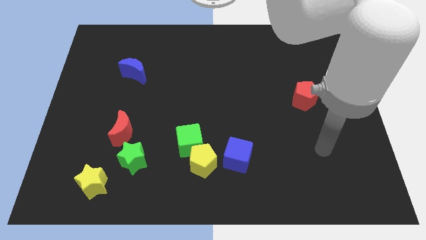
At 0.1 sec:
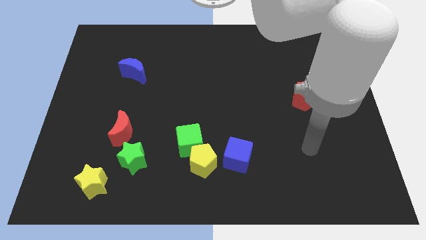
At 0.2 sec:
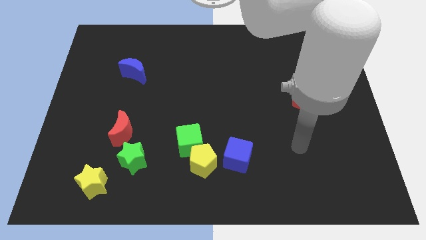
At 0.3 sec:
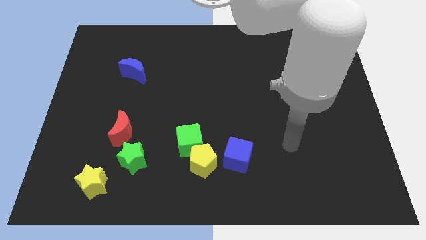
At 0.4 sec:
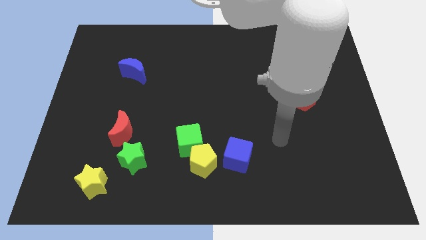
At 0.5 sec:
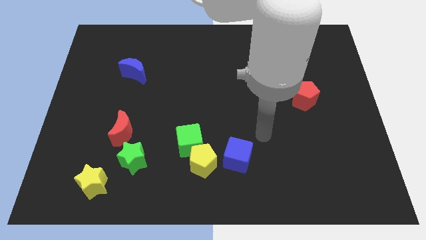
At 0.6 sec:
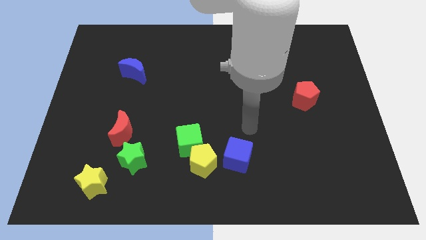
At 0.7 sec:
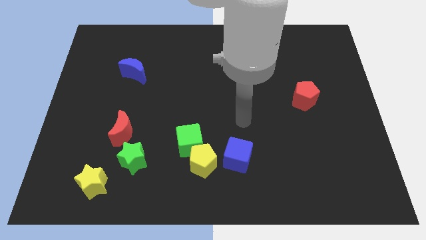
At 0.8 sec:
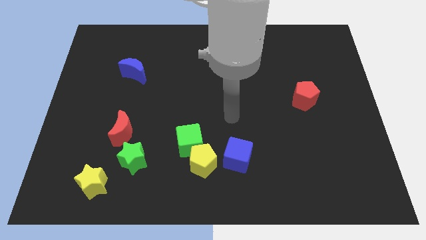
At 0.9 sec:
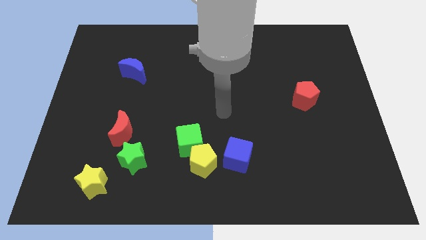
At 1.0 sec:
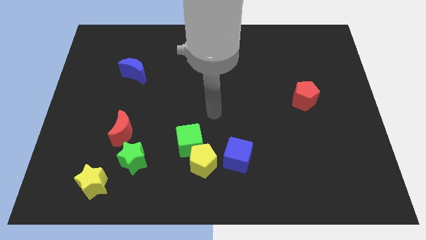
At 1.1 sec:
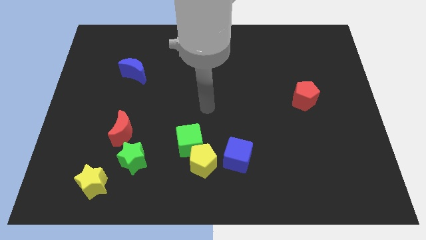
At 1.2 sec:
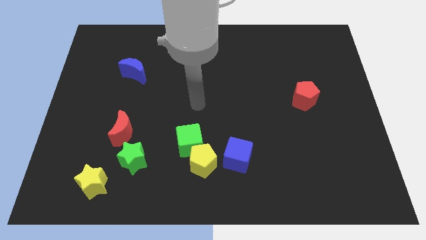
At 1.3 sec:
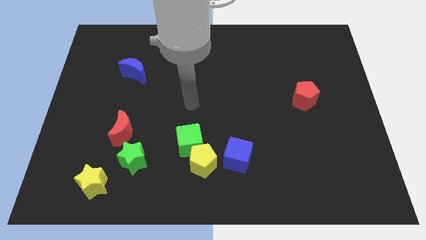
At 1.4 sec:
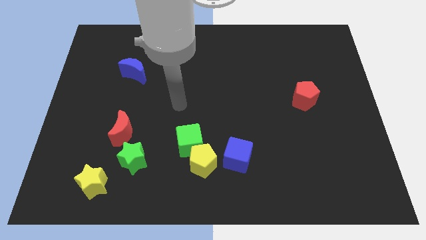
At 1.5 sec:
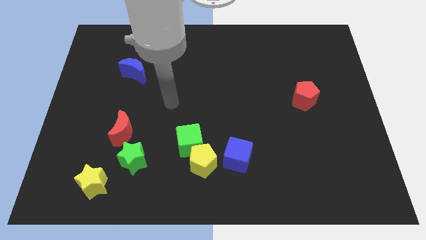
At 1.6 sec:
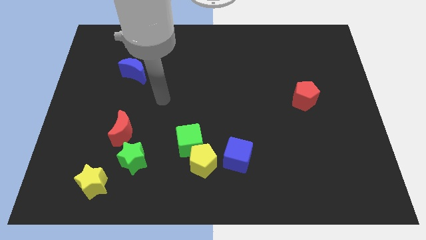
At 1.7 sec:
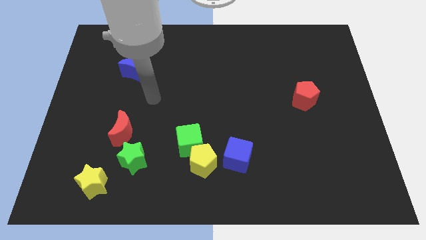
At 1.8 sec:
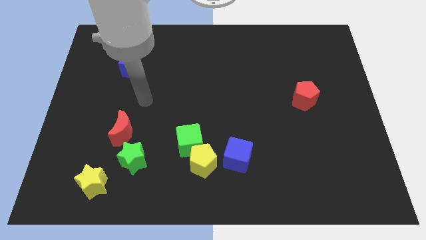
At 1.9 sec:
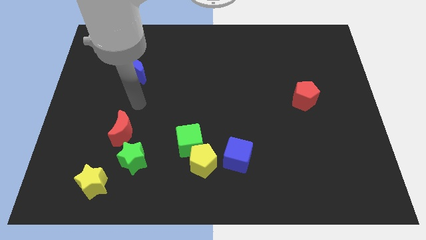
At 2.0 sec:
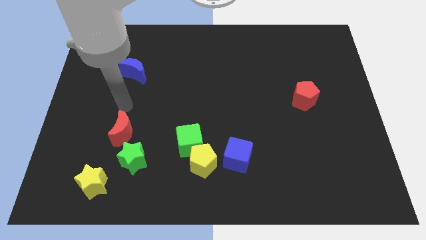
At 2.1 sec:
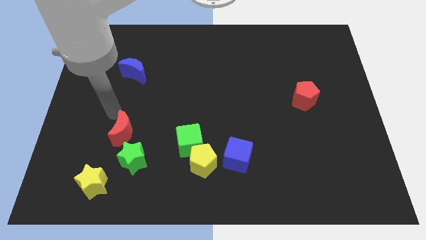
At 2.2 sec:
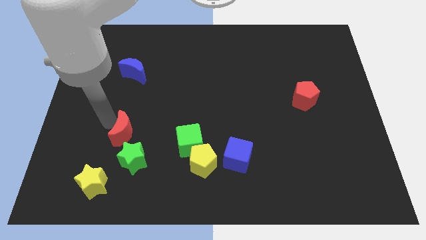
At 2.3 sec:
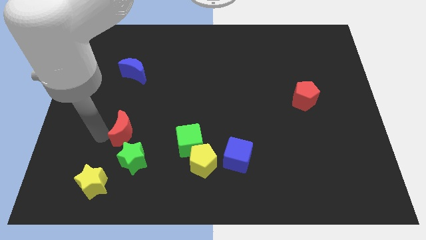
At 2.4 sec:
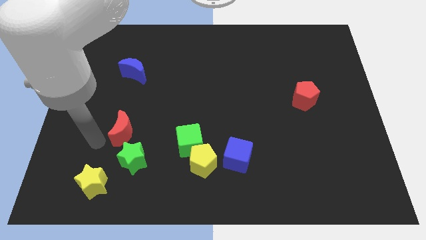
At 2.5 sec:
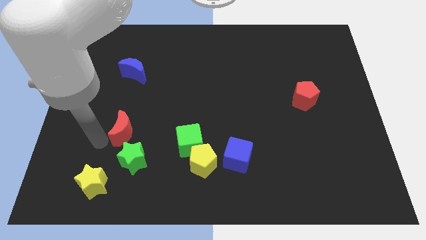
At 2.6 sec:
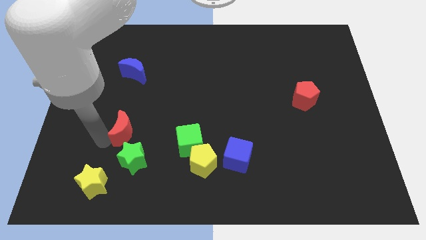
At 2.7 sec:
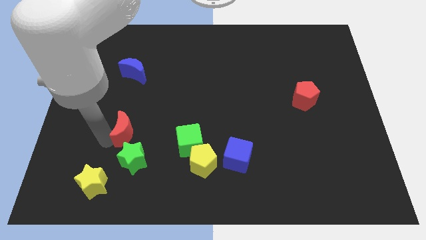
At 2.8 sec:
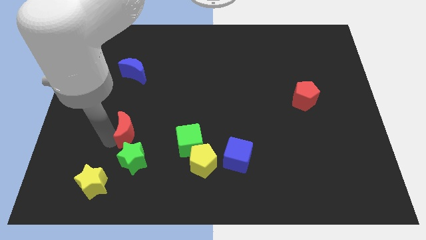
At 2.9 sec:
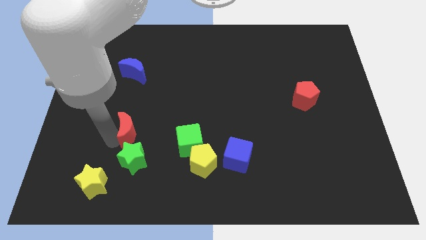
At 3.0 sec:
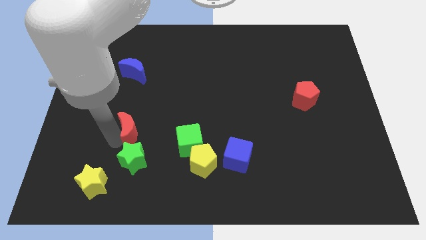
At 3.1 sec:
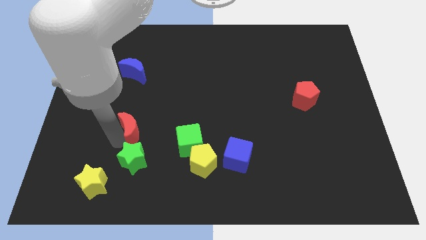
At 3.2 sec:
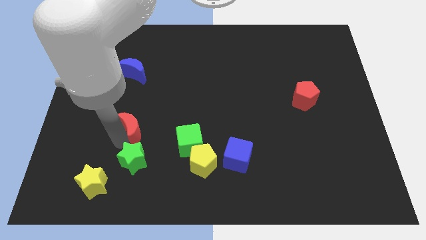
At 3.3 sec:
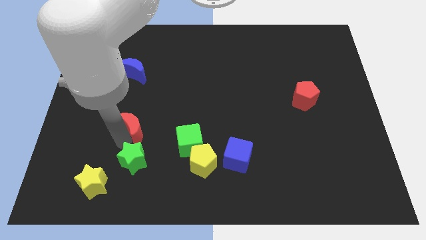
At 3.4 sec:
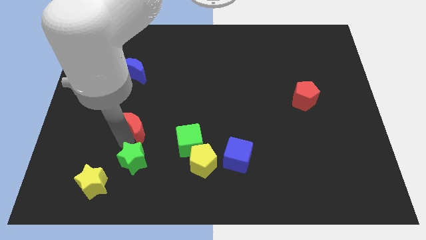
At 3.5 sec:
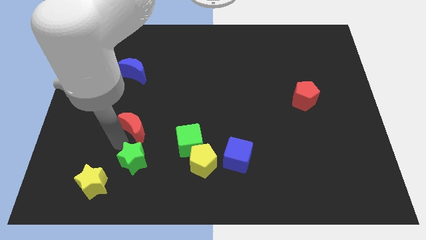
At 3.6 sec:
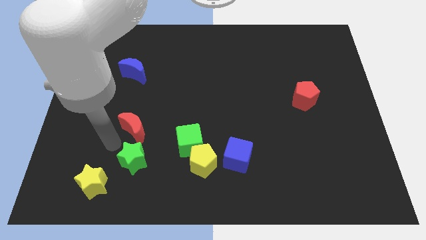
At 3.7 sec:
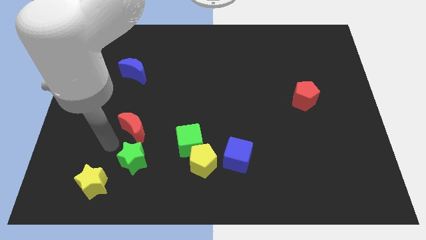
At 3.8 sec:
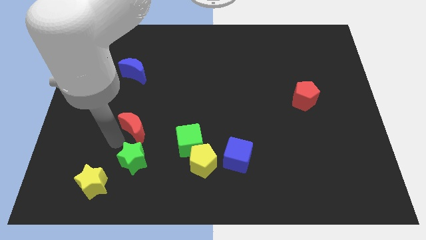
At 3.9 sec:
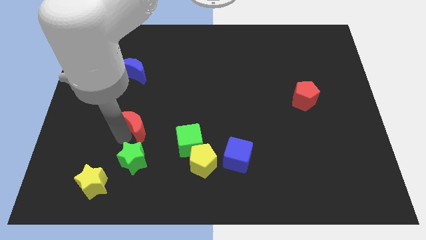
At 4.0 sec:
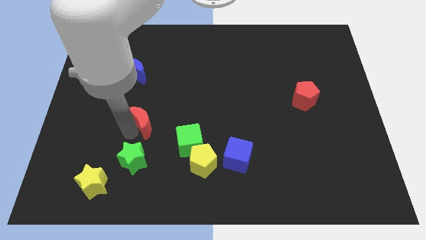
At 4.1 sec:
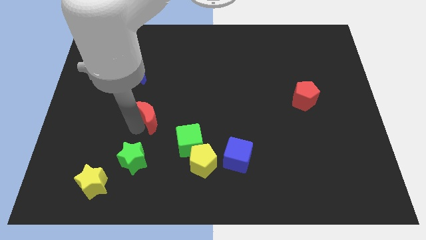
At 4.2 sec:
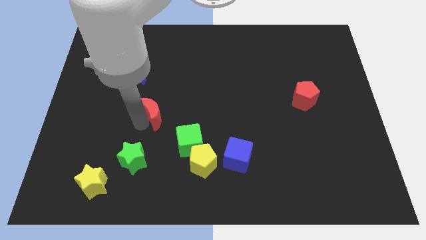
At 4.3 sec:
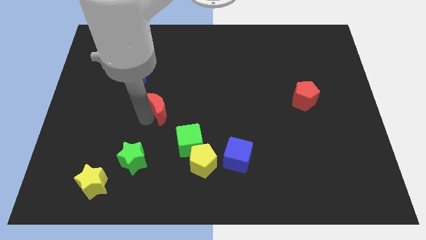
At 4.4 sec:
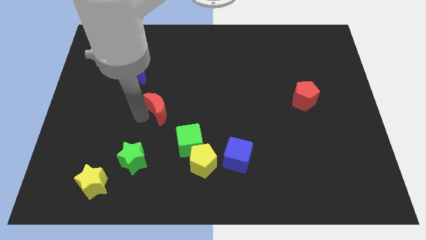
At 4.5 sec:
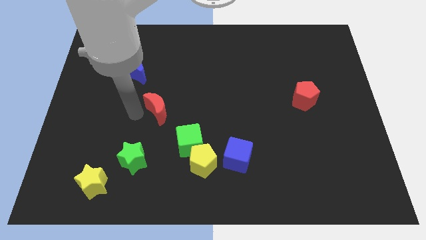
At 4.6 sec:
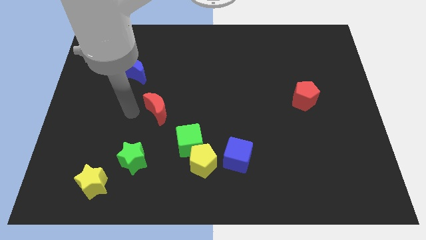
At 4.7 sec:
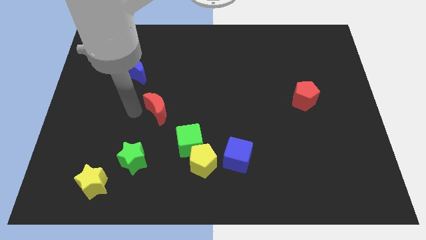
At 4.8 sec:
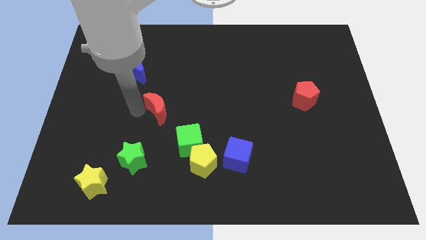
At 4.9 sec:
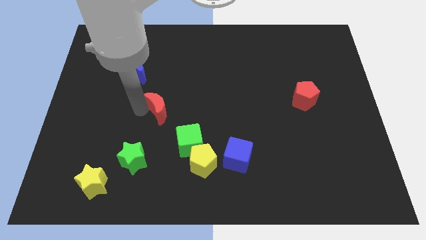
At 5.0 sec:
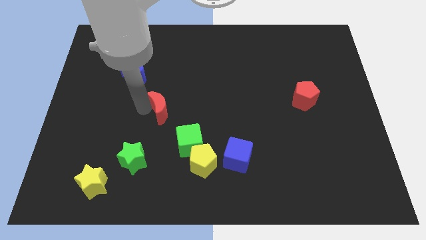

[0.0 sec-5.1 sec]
move the red moon to the middle

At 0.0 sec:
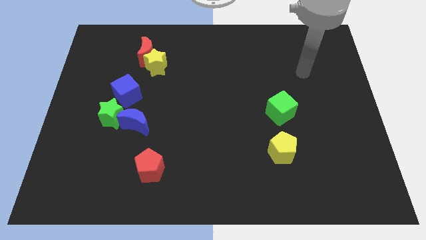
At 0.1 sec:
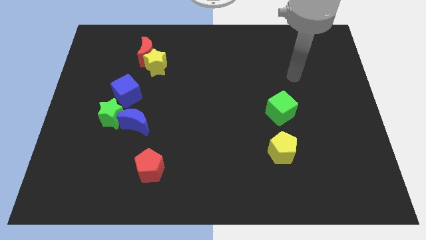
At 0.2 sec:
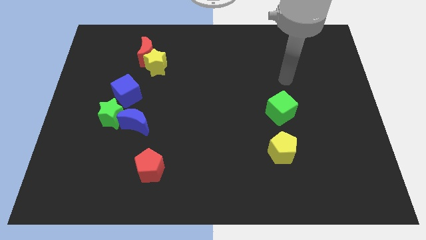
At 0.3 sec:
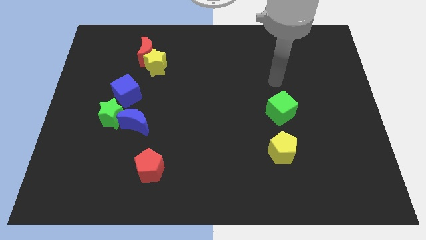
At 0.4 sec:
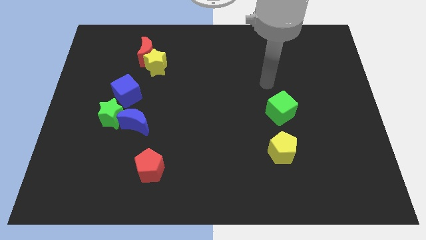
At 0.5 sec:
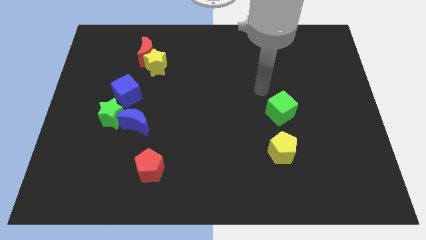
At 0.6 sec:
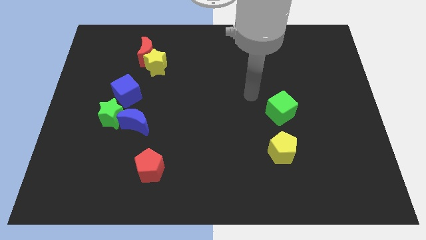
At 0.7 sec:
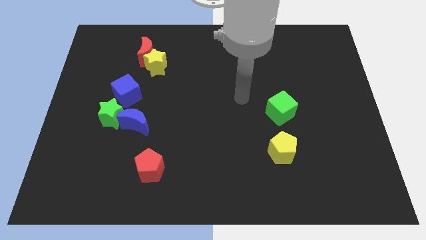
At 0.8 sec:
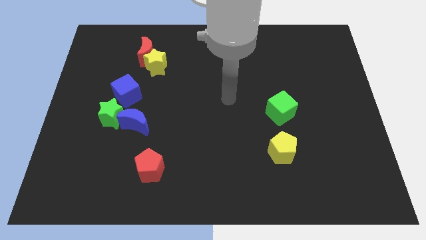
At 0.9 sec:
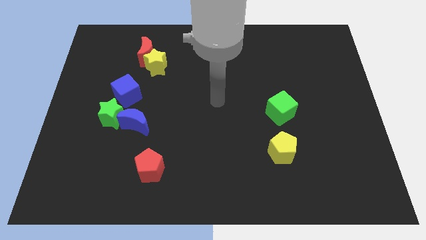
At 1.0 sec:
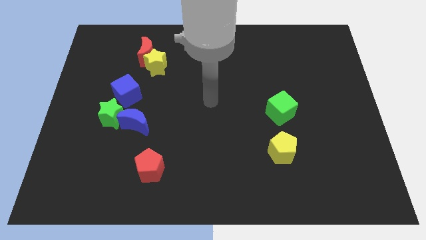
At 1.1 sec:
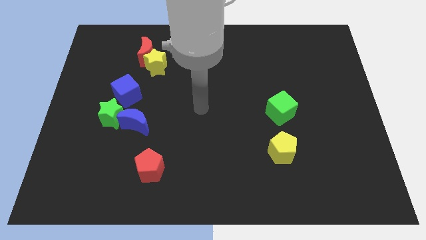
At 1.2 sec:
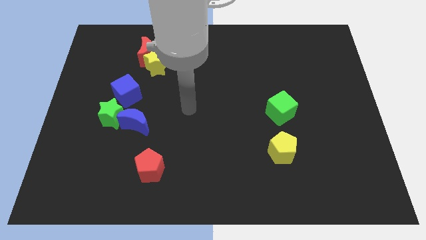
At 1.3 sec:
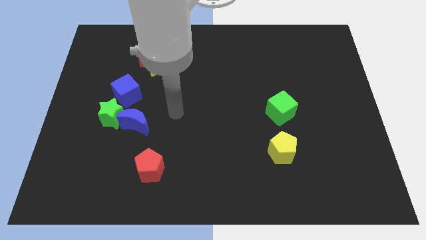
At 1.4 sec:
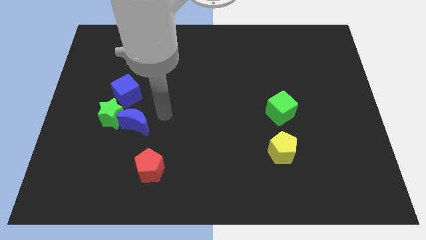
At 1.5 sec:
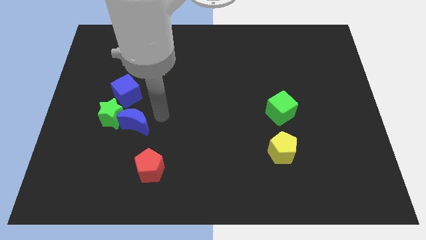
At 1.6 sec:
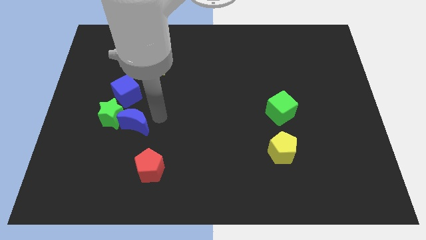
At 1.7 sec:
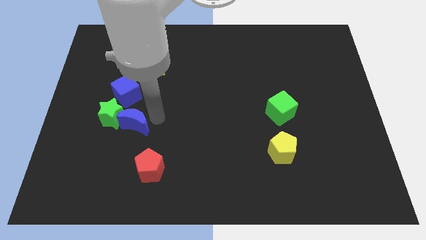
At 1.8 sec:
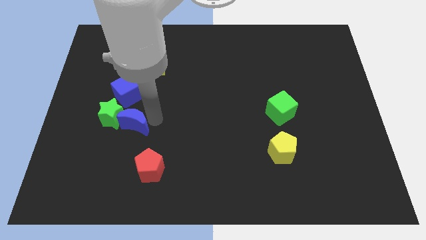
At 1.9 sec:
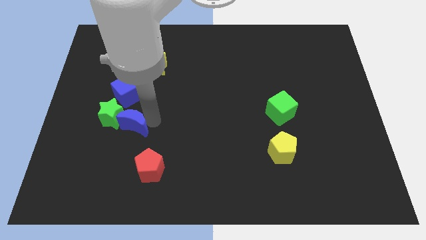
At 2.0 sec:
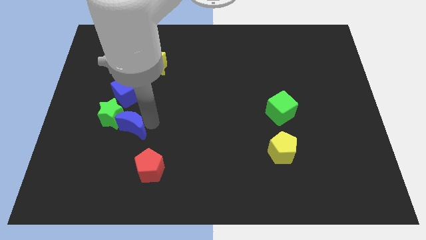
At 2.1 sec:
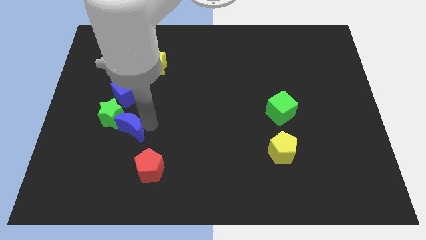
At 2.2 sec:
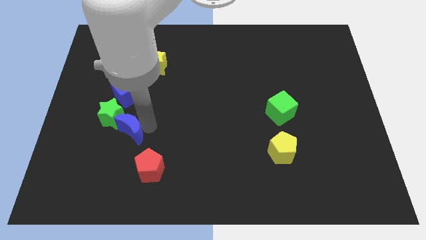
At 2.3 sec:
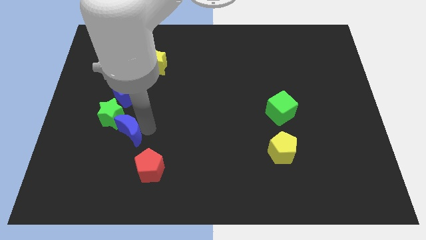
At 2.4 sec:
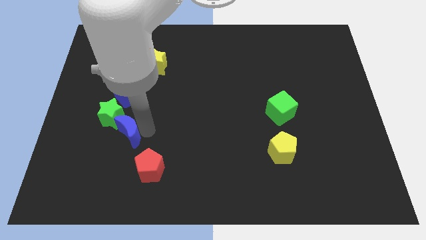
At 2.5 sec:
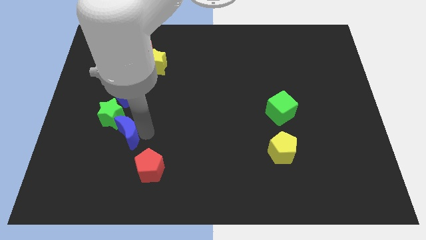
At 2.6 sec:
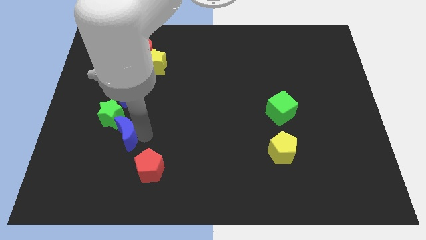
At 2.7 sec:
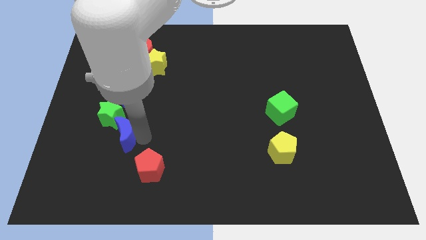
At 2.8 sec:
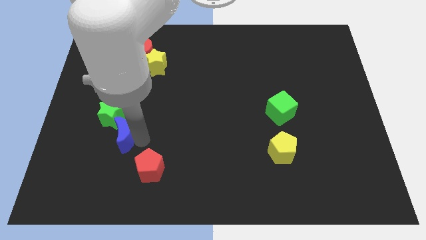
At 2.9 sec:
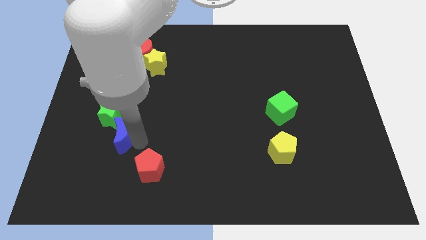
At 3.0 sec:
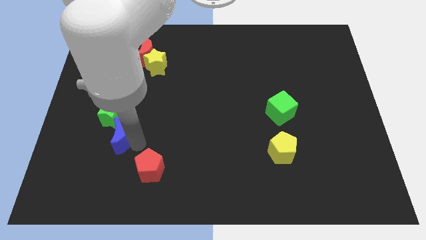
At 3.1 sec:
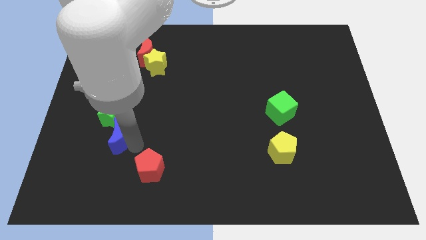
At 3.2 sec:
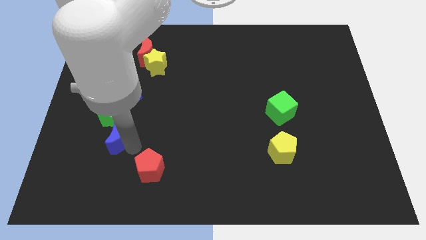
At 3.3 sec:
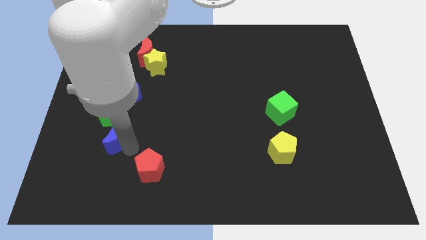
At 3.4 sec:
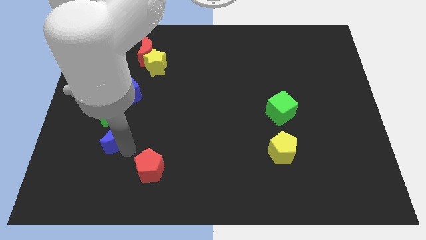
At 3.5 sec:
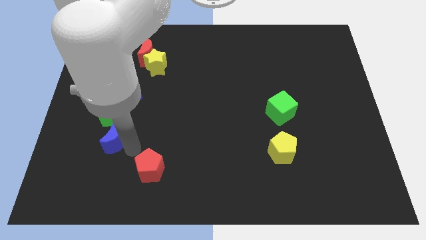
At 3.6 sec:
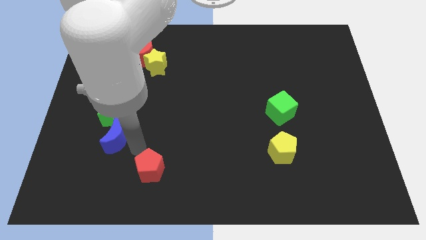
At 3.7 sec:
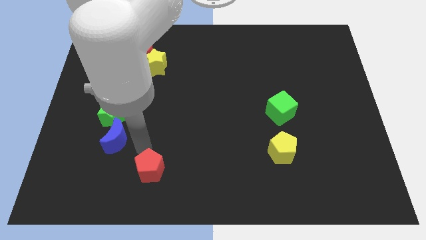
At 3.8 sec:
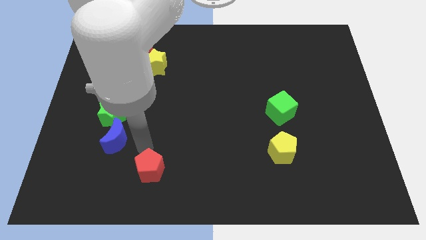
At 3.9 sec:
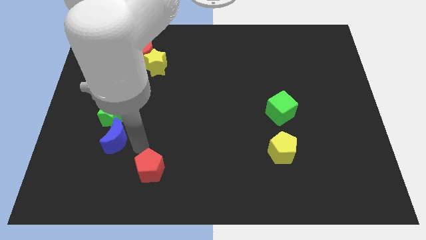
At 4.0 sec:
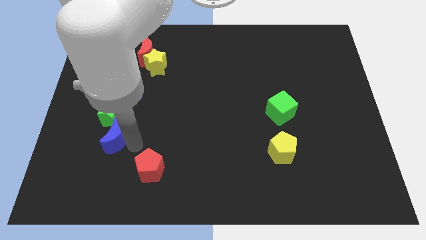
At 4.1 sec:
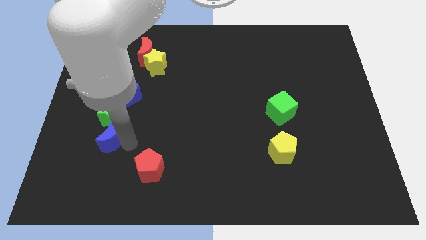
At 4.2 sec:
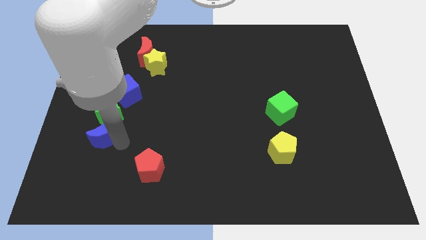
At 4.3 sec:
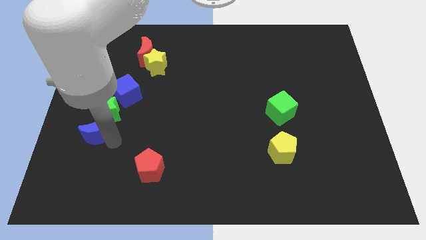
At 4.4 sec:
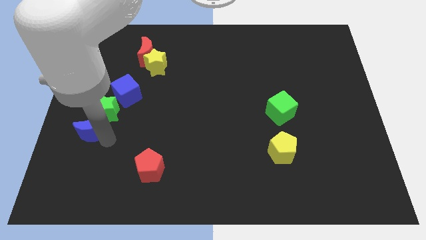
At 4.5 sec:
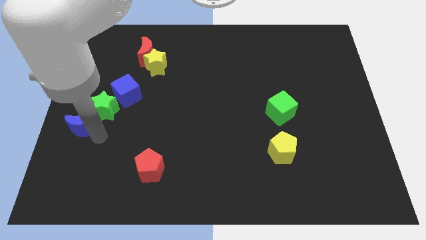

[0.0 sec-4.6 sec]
put the blue moon to the left side
